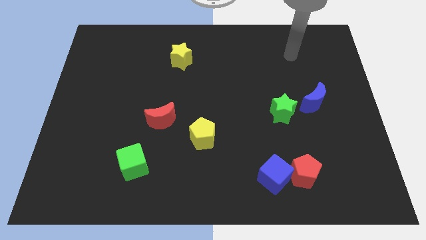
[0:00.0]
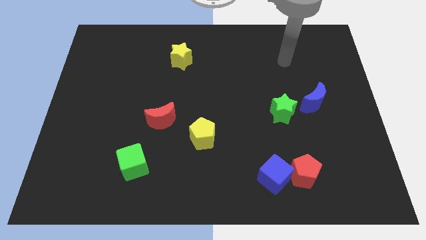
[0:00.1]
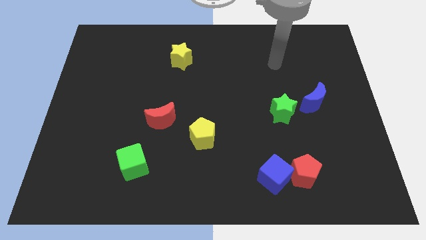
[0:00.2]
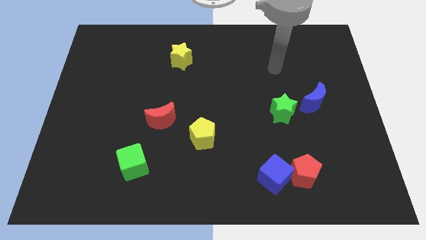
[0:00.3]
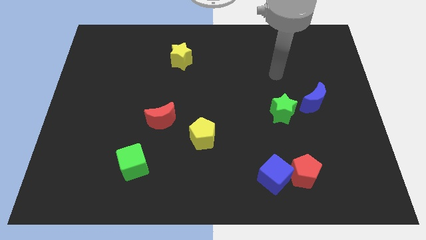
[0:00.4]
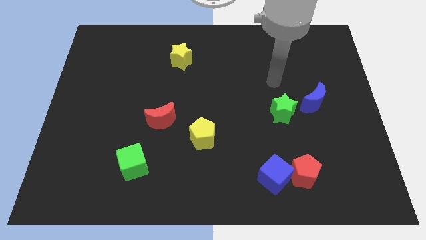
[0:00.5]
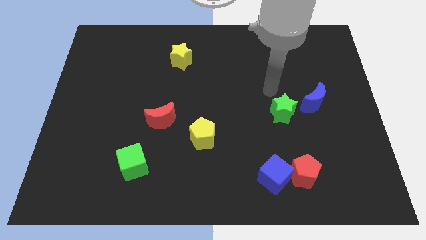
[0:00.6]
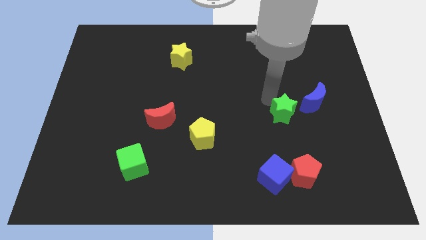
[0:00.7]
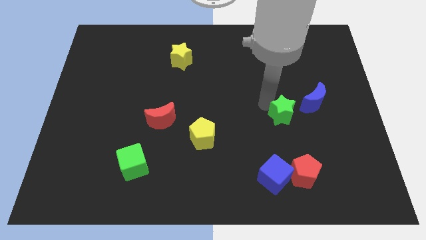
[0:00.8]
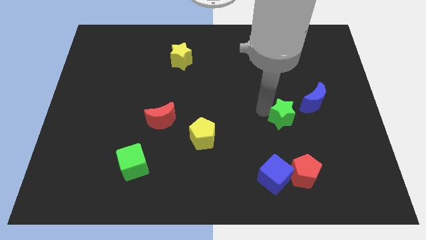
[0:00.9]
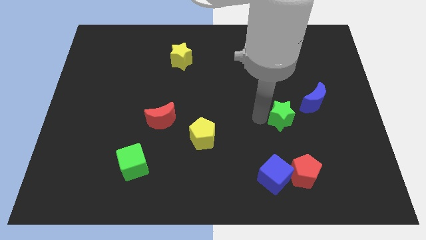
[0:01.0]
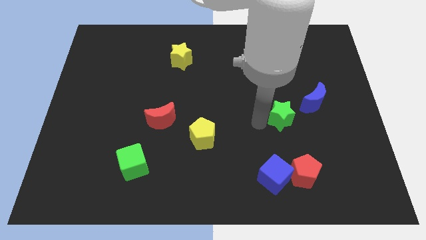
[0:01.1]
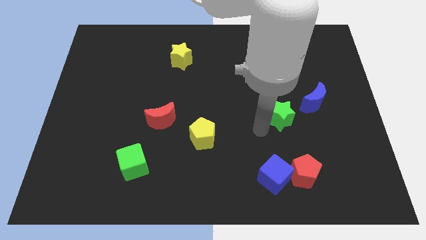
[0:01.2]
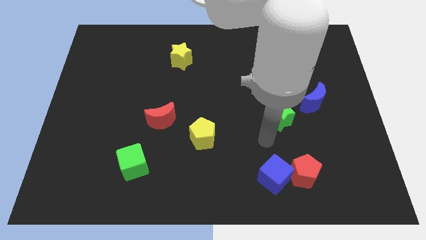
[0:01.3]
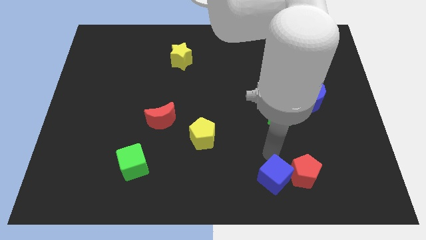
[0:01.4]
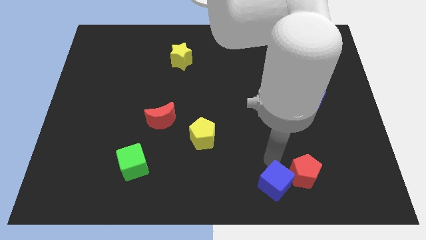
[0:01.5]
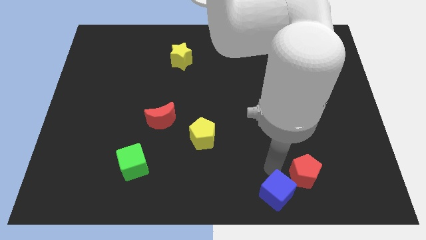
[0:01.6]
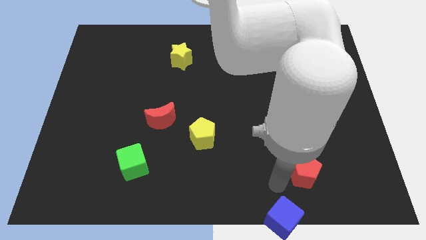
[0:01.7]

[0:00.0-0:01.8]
separate the red pentagon from the blue cube

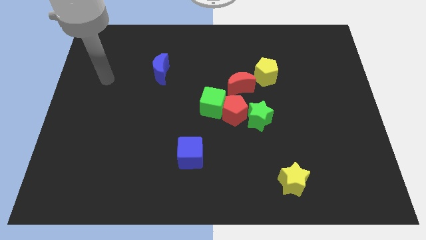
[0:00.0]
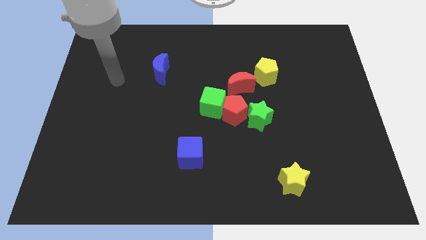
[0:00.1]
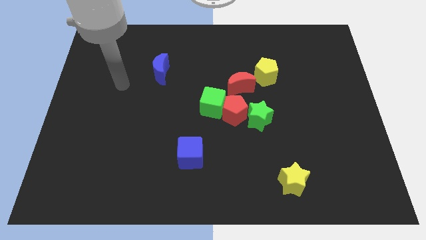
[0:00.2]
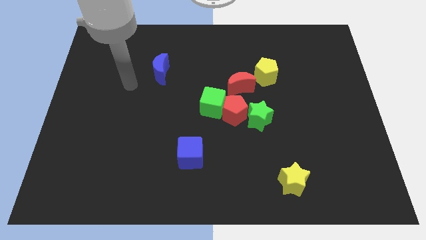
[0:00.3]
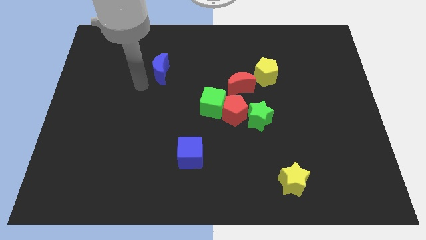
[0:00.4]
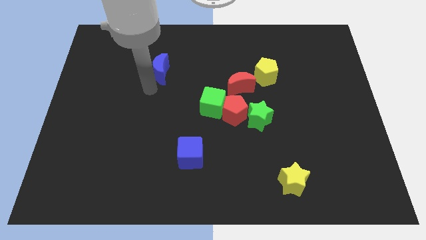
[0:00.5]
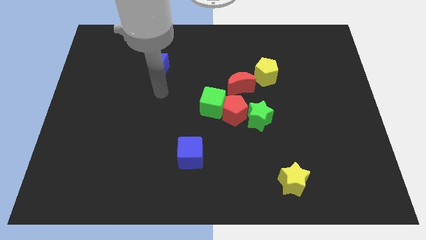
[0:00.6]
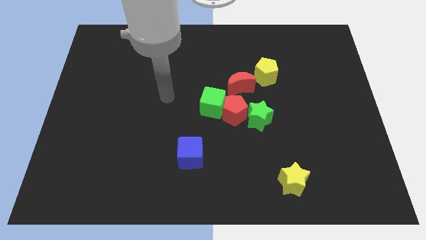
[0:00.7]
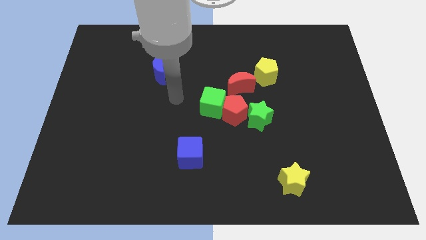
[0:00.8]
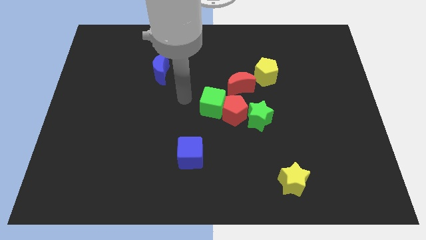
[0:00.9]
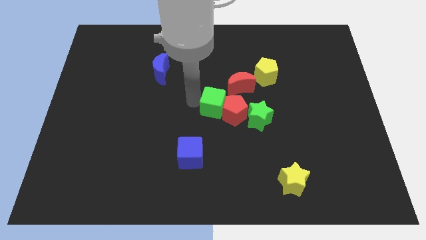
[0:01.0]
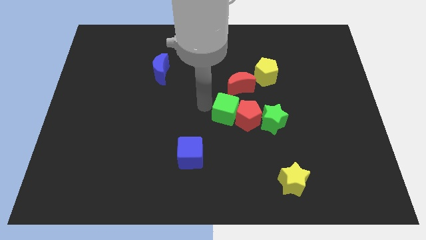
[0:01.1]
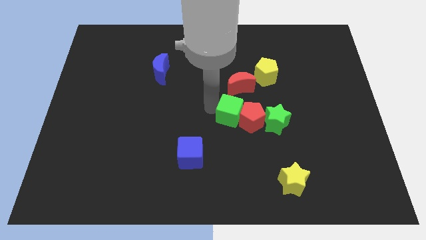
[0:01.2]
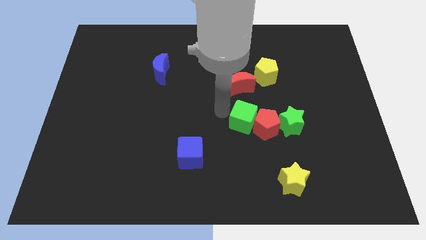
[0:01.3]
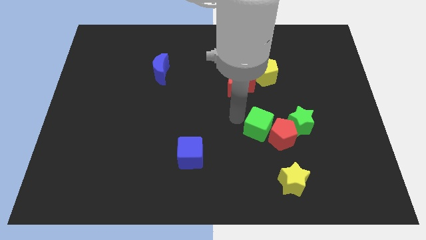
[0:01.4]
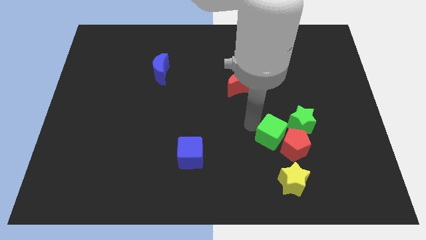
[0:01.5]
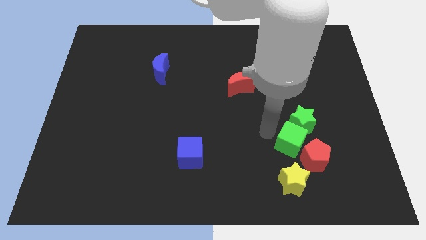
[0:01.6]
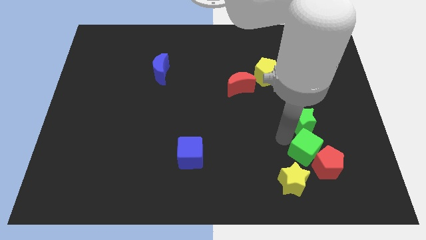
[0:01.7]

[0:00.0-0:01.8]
move the green star away from the red pentagon

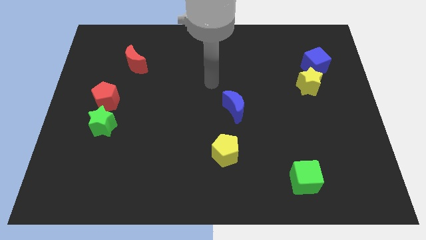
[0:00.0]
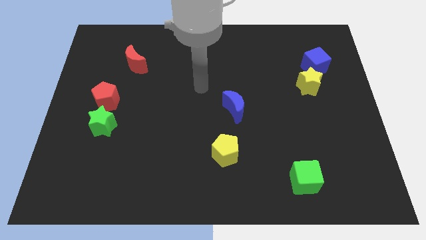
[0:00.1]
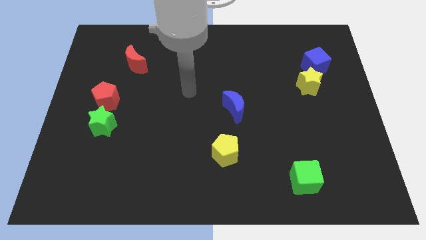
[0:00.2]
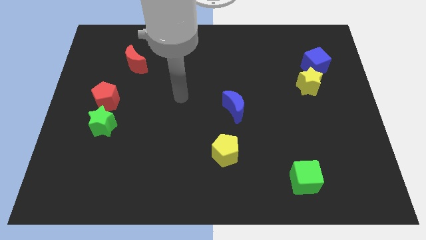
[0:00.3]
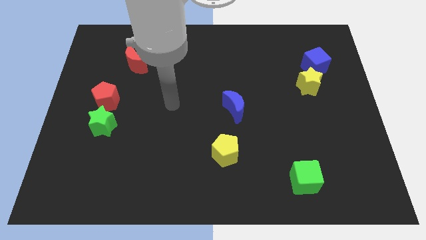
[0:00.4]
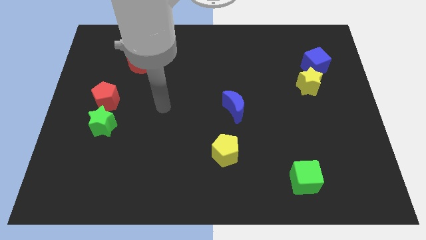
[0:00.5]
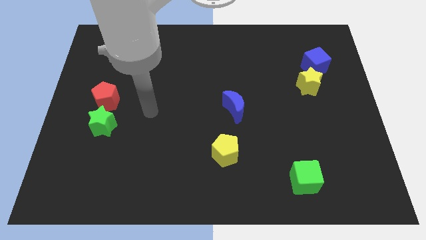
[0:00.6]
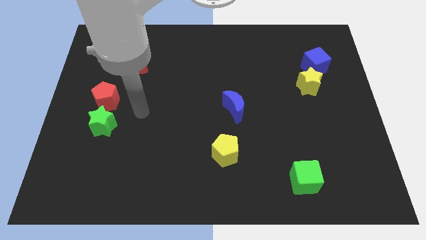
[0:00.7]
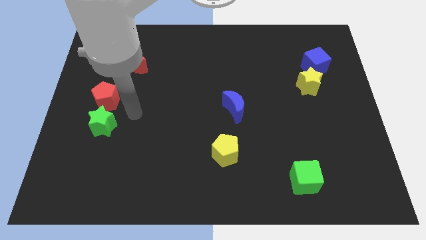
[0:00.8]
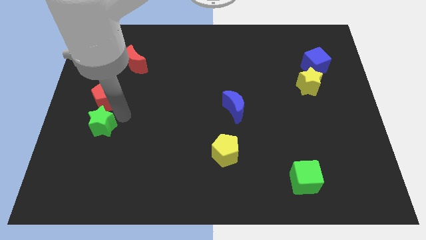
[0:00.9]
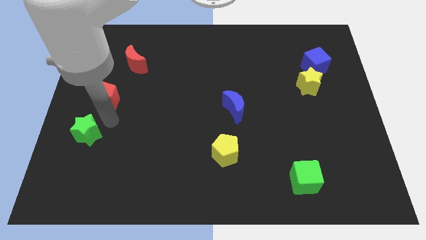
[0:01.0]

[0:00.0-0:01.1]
move the red pentagon away from the green star

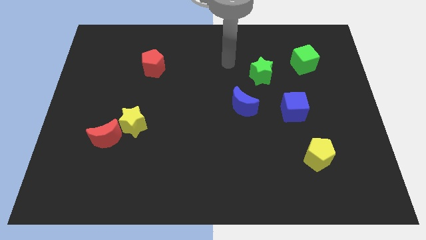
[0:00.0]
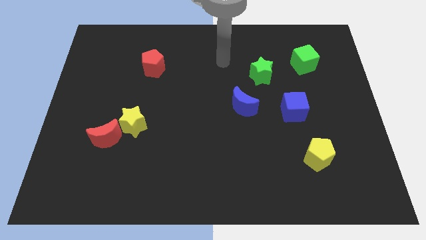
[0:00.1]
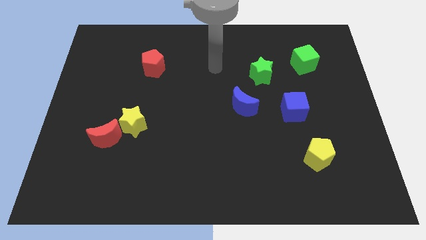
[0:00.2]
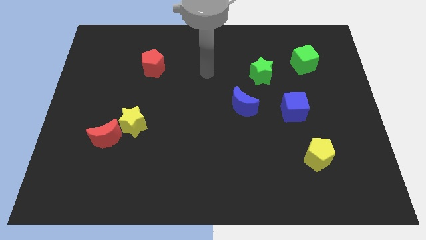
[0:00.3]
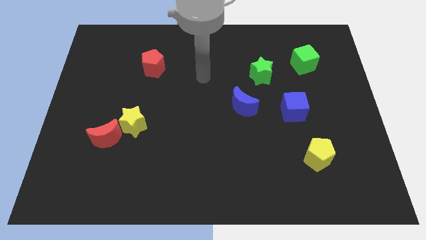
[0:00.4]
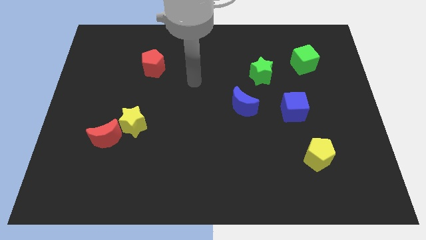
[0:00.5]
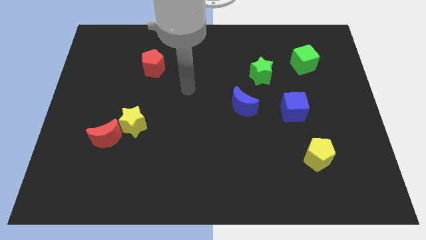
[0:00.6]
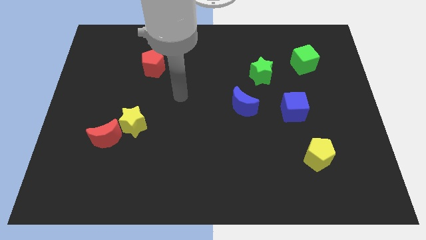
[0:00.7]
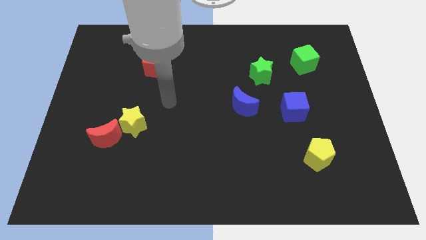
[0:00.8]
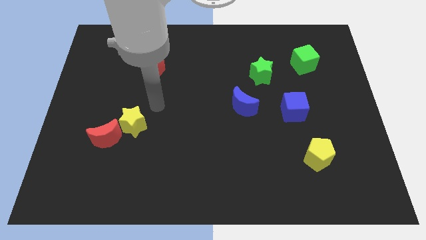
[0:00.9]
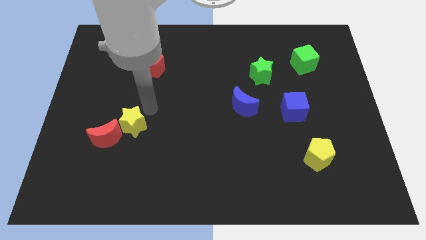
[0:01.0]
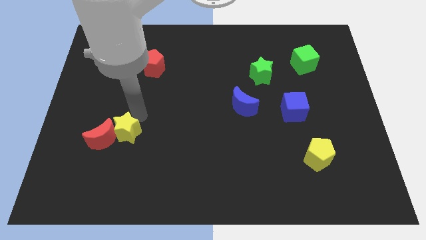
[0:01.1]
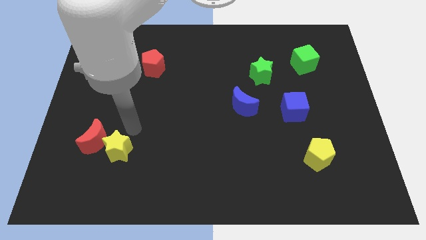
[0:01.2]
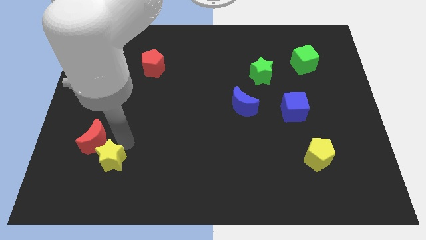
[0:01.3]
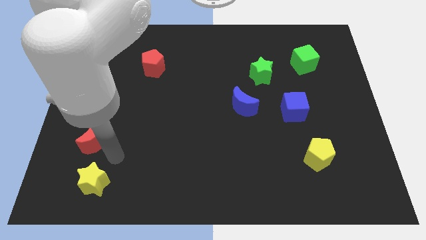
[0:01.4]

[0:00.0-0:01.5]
pull the red moon apart from the yellow star

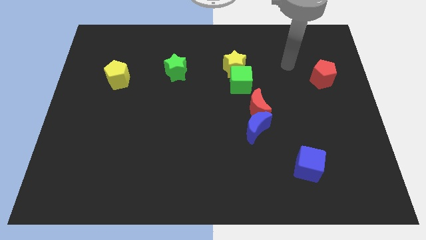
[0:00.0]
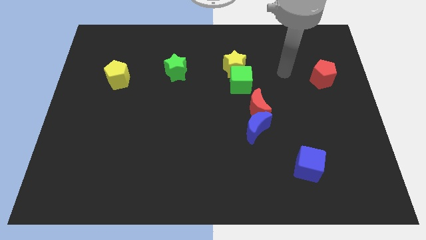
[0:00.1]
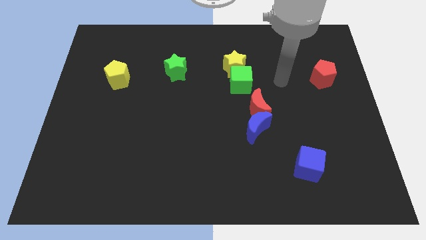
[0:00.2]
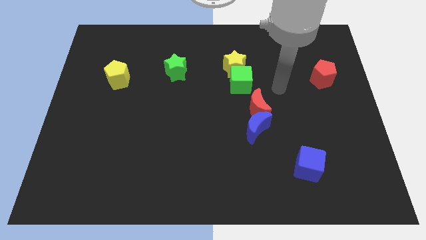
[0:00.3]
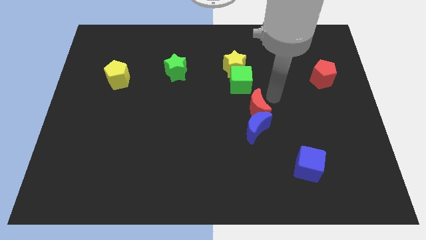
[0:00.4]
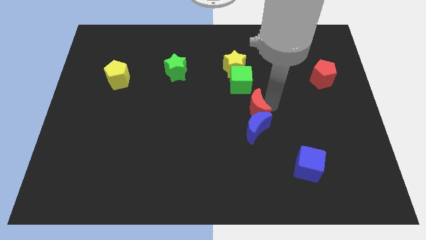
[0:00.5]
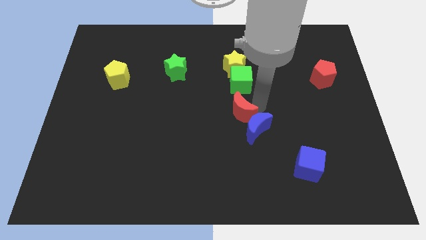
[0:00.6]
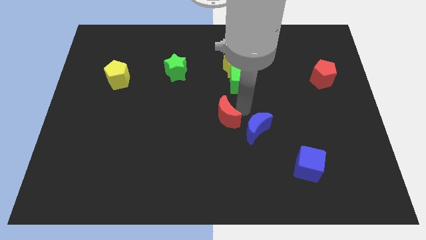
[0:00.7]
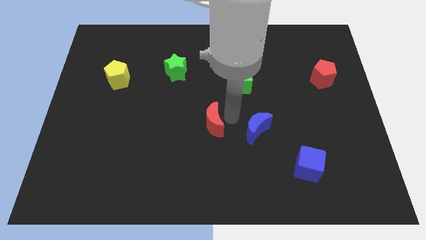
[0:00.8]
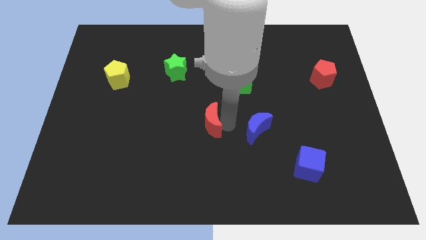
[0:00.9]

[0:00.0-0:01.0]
pull the blue moon apart from the red moon

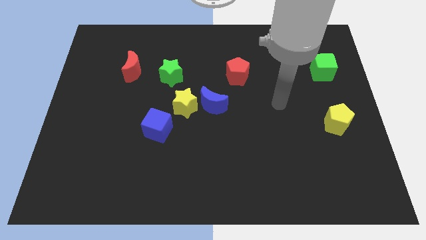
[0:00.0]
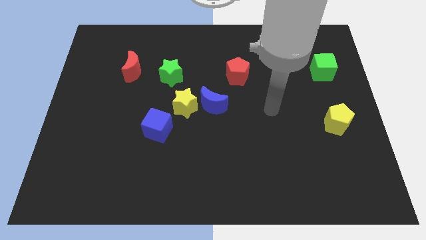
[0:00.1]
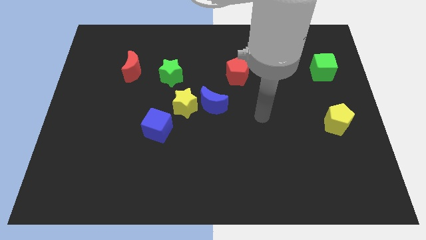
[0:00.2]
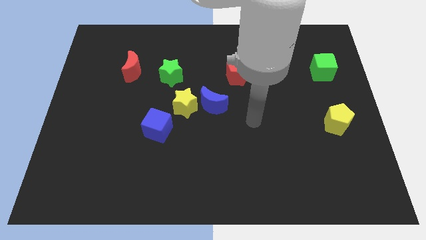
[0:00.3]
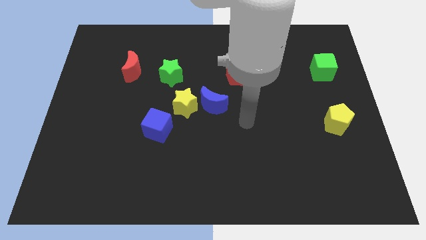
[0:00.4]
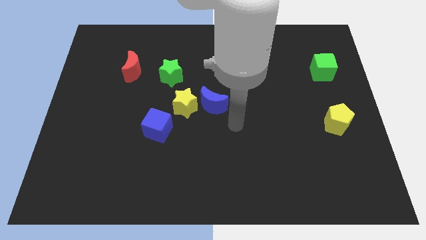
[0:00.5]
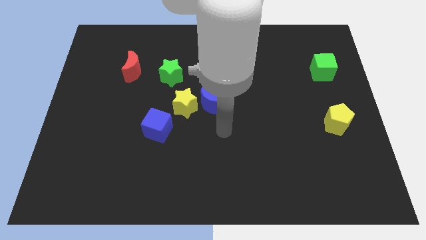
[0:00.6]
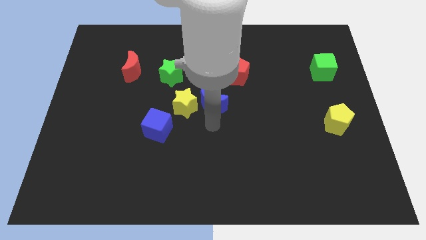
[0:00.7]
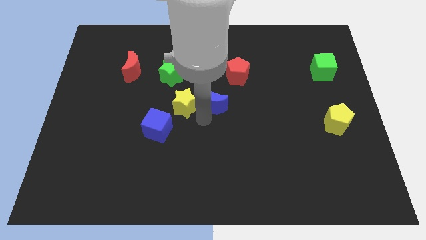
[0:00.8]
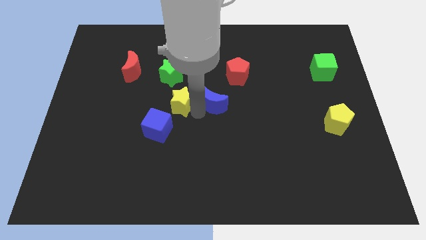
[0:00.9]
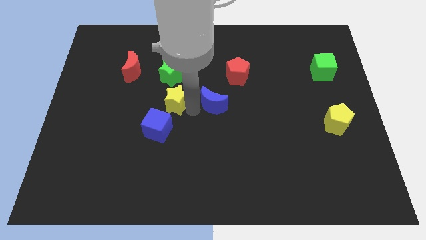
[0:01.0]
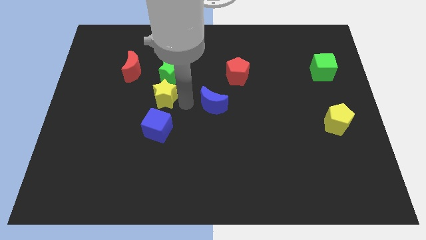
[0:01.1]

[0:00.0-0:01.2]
move the blue moon away from the yellow star

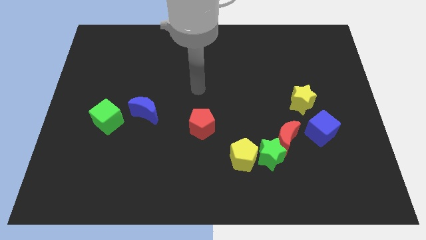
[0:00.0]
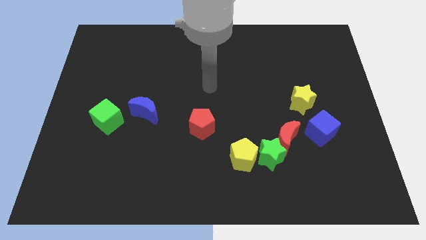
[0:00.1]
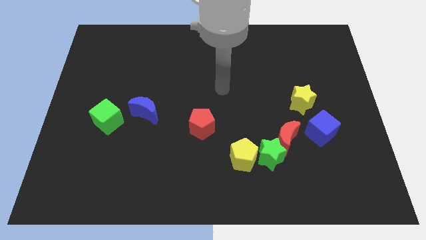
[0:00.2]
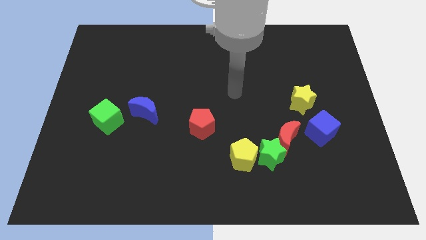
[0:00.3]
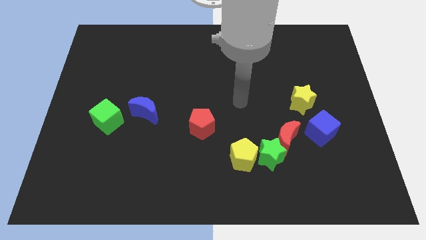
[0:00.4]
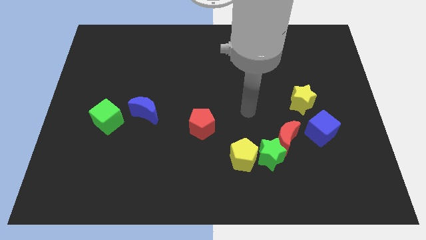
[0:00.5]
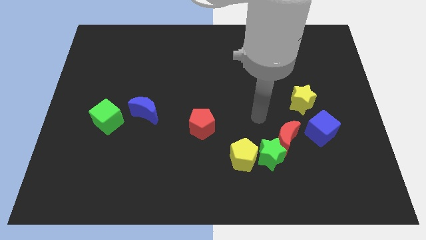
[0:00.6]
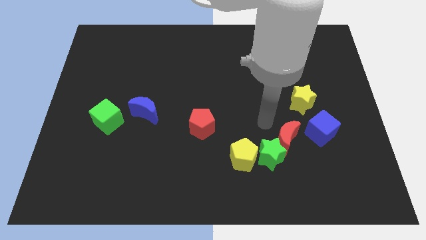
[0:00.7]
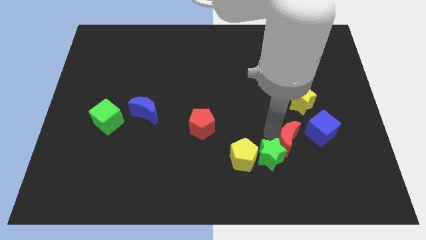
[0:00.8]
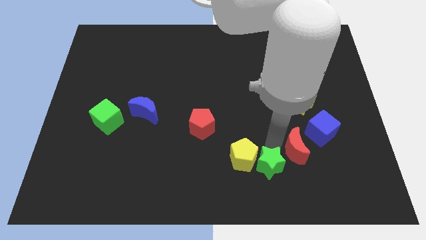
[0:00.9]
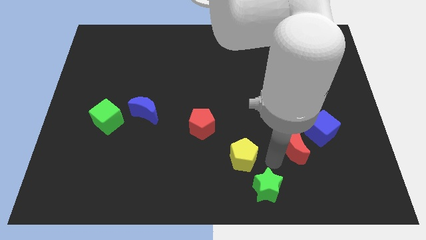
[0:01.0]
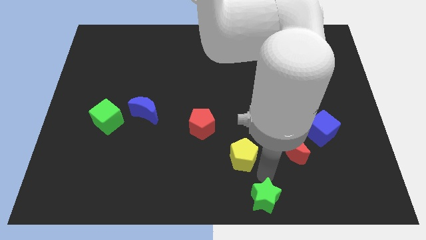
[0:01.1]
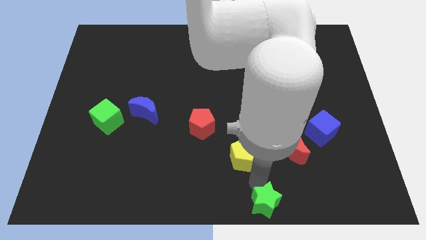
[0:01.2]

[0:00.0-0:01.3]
move the yellow pentagon away from the green star
